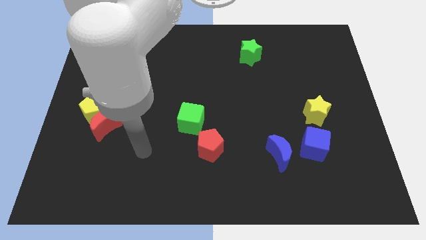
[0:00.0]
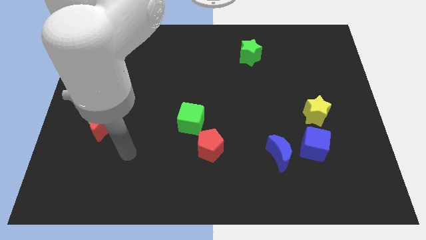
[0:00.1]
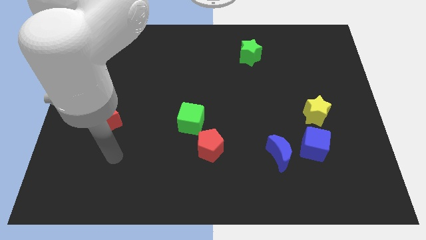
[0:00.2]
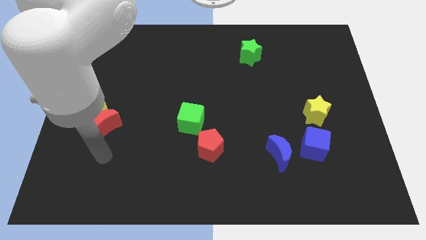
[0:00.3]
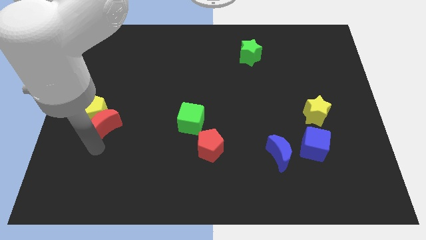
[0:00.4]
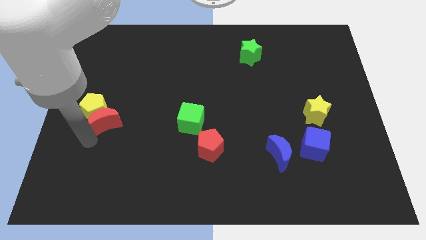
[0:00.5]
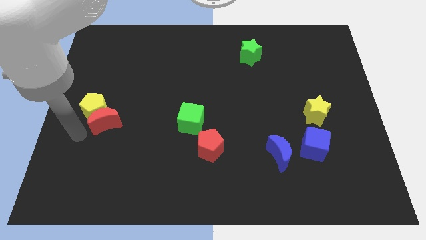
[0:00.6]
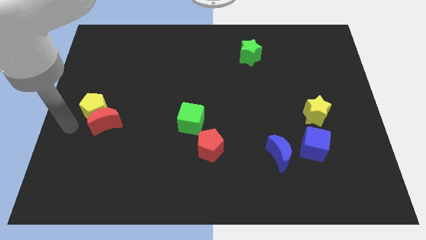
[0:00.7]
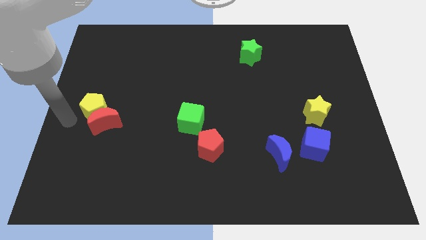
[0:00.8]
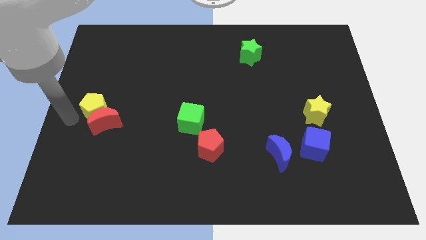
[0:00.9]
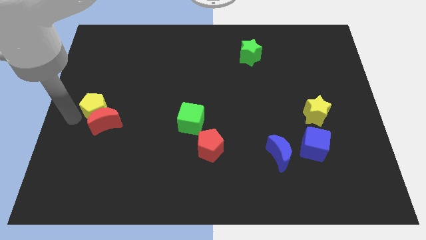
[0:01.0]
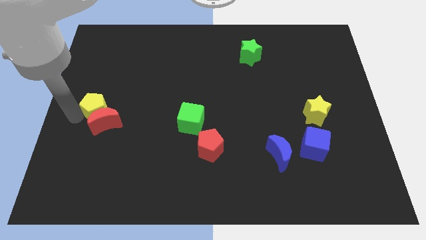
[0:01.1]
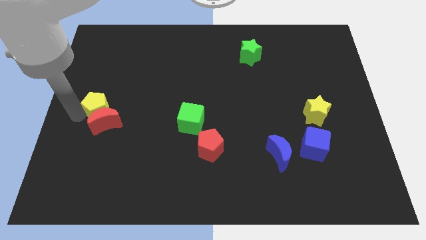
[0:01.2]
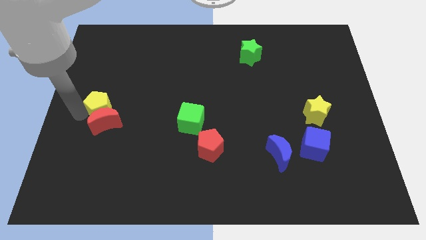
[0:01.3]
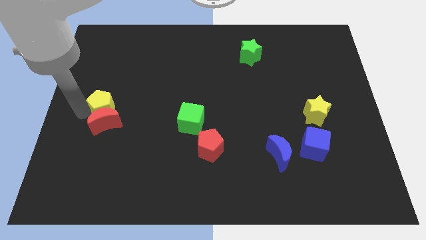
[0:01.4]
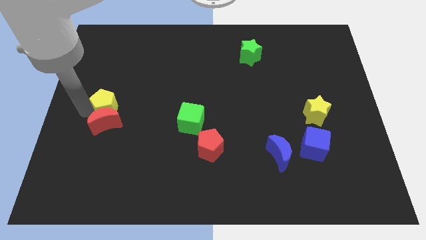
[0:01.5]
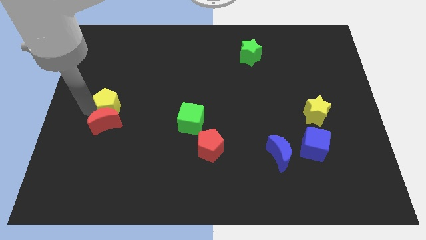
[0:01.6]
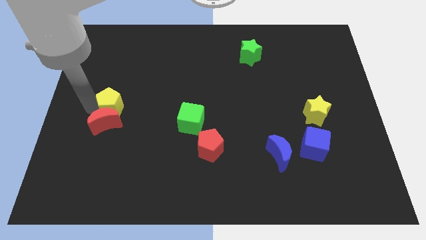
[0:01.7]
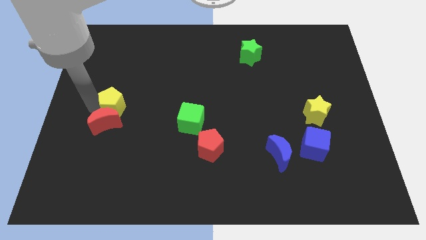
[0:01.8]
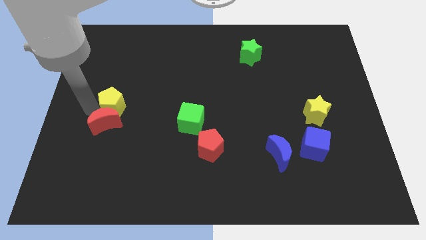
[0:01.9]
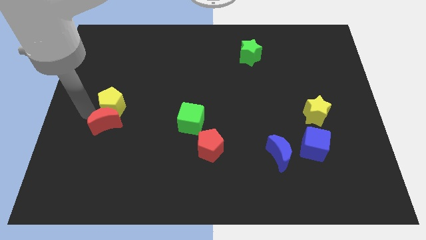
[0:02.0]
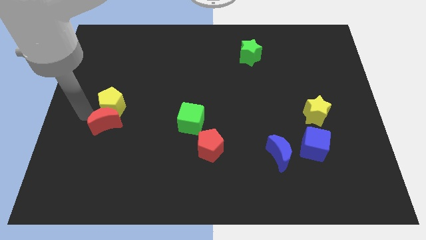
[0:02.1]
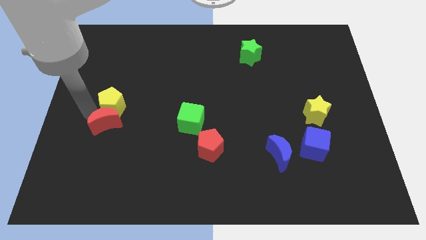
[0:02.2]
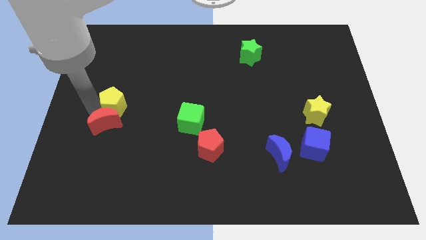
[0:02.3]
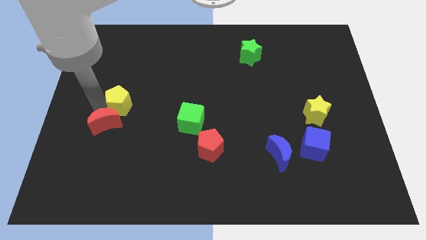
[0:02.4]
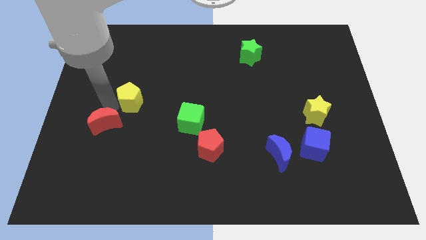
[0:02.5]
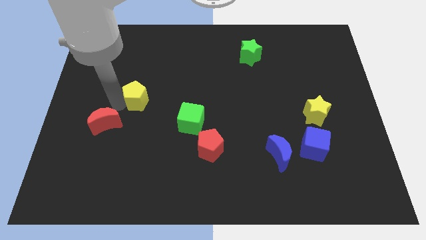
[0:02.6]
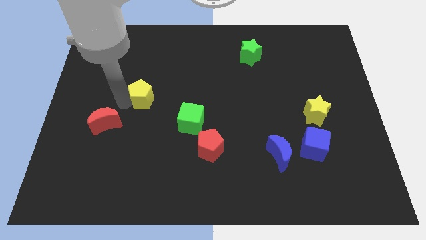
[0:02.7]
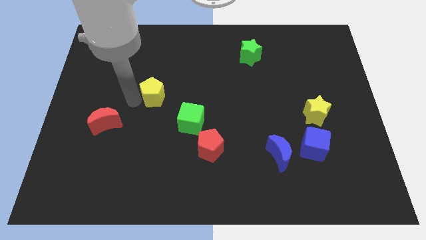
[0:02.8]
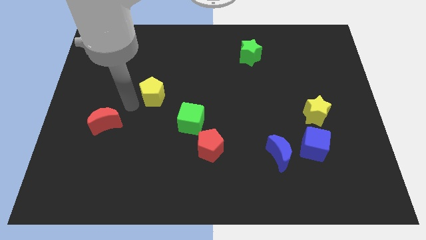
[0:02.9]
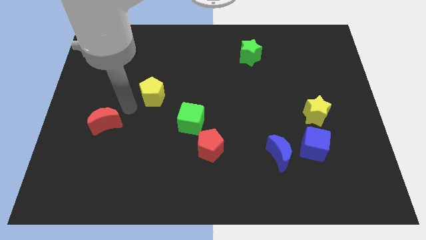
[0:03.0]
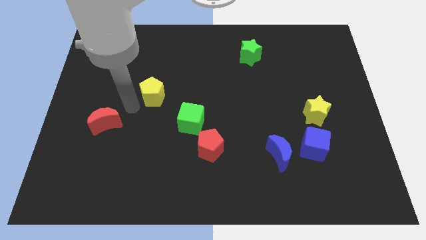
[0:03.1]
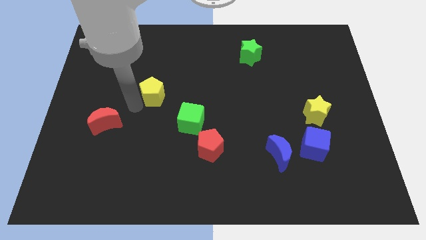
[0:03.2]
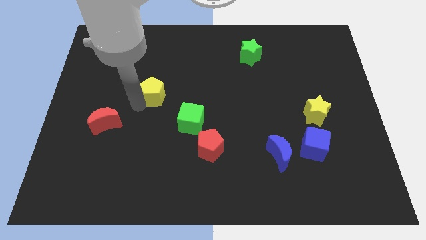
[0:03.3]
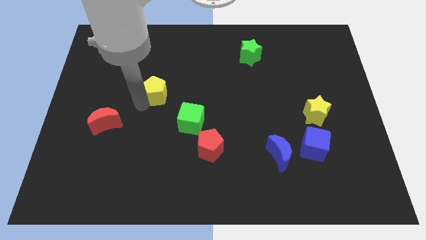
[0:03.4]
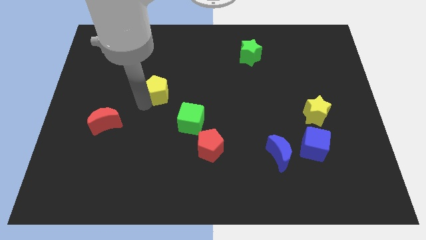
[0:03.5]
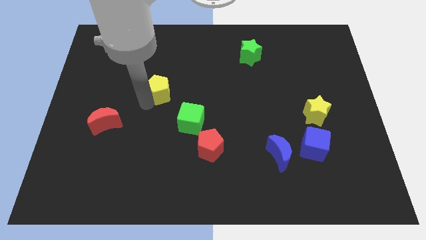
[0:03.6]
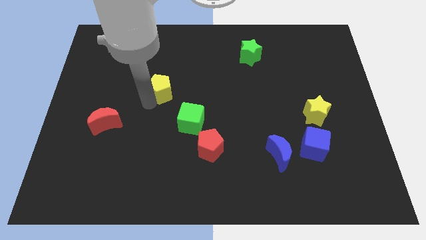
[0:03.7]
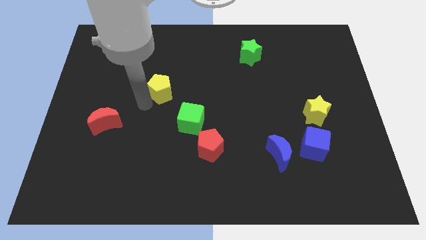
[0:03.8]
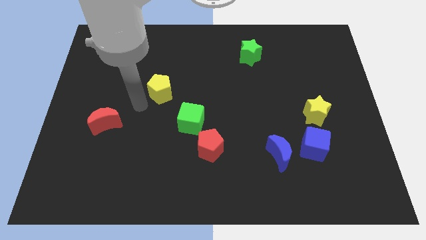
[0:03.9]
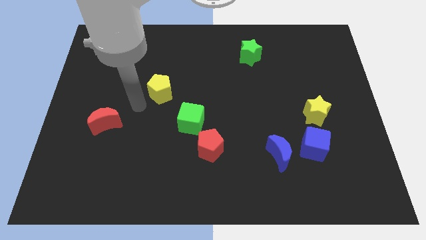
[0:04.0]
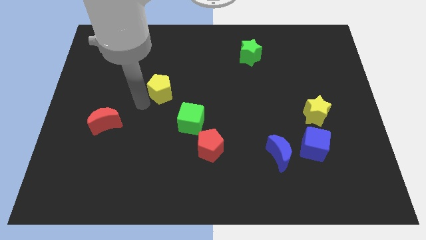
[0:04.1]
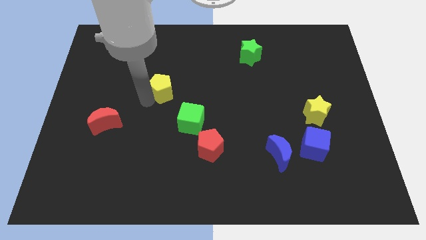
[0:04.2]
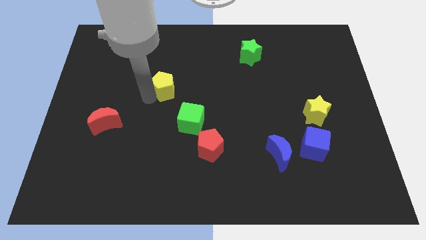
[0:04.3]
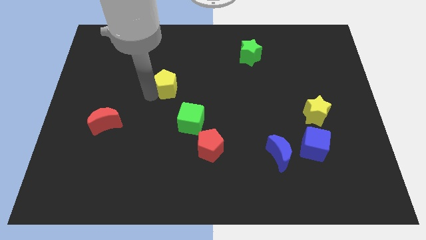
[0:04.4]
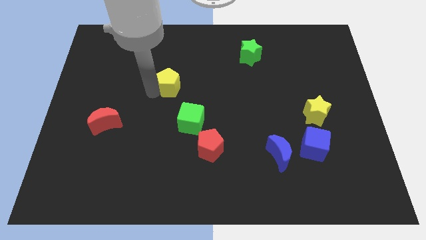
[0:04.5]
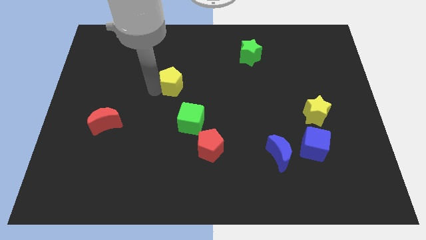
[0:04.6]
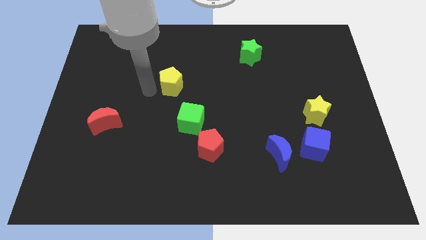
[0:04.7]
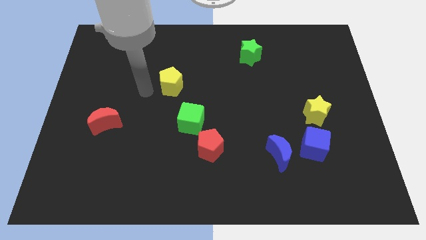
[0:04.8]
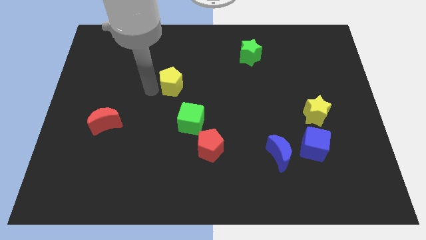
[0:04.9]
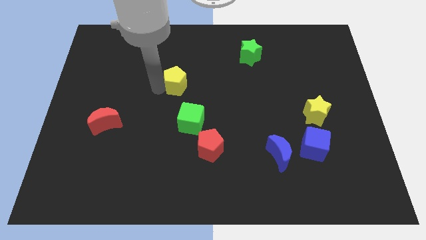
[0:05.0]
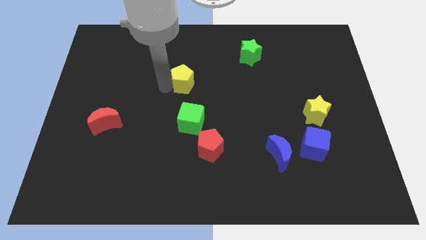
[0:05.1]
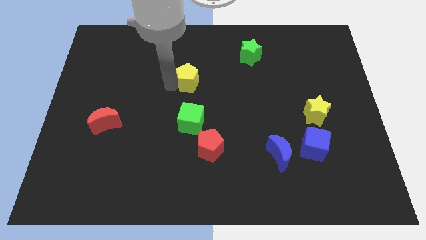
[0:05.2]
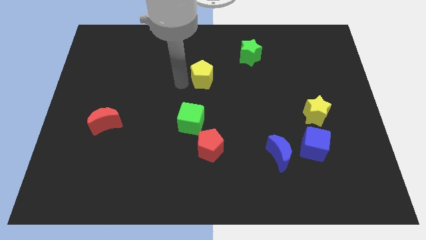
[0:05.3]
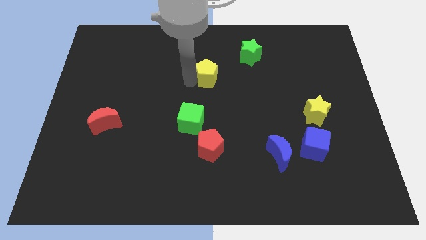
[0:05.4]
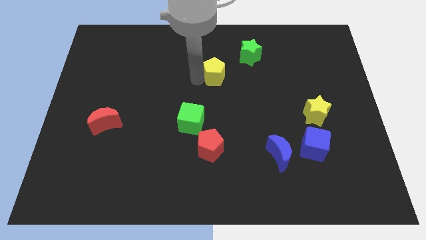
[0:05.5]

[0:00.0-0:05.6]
move the yellow pentagon to the bottom left of the green star

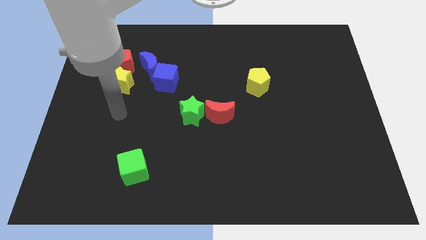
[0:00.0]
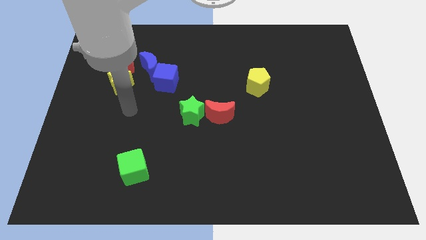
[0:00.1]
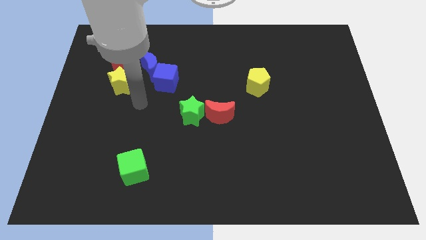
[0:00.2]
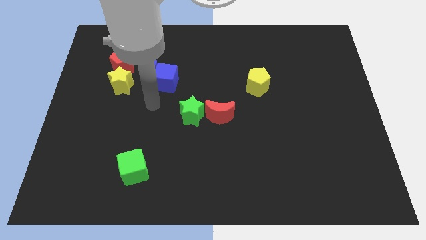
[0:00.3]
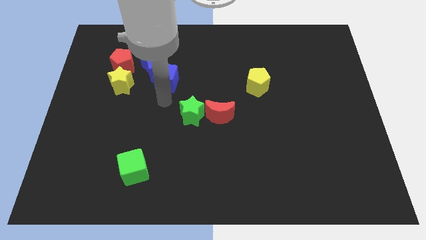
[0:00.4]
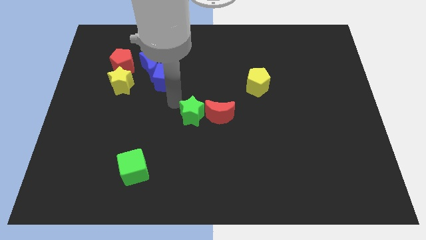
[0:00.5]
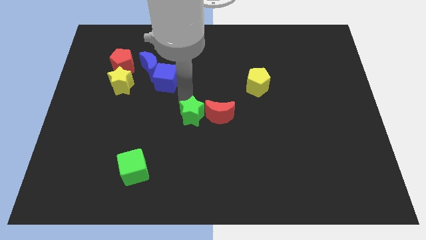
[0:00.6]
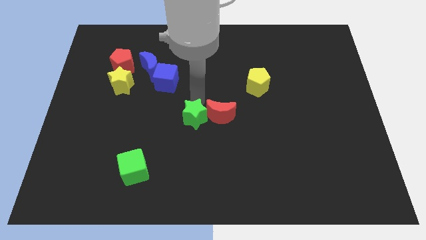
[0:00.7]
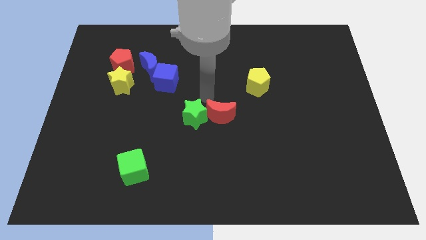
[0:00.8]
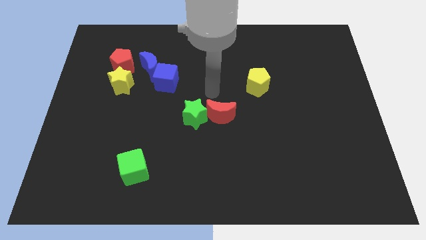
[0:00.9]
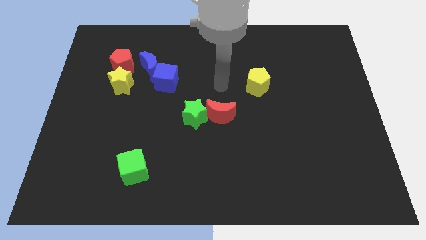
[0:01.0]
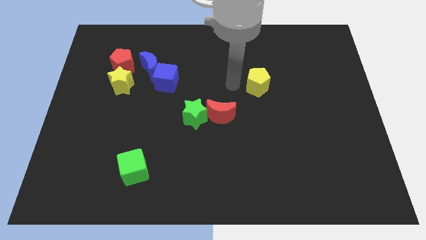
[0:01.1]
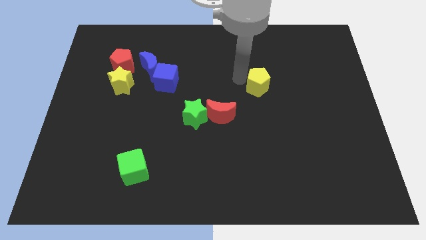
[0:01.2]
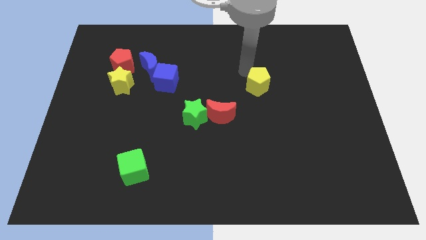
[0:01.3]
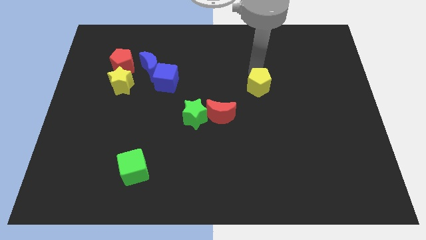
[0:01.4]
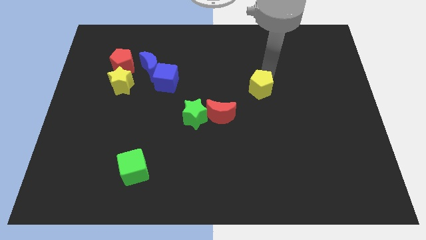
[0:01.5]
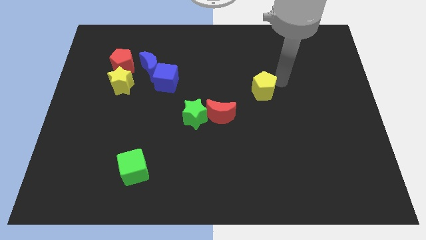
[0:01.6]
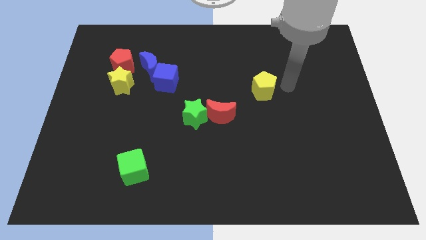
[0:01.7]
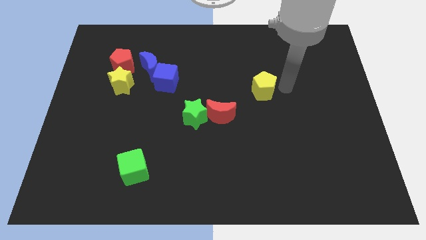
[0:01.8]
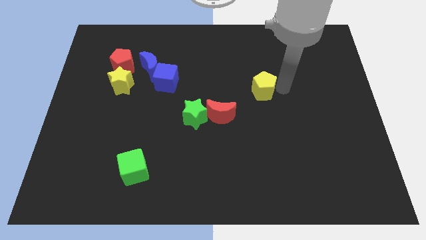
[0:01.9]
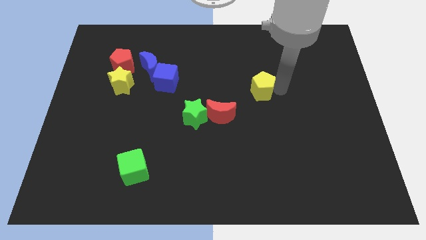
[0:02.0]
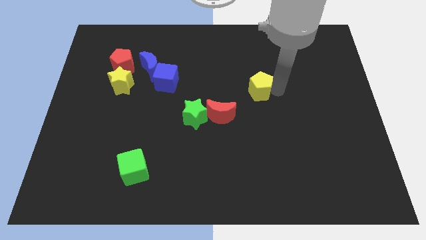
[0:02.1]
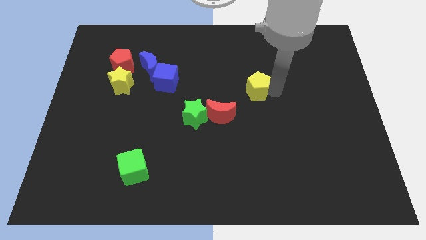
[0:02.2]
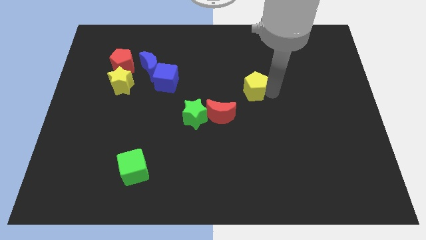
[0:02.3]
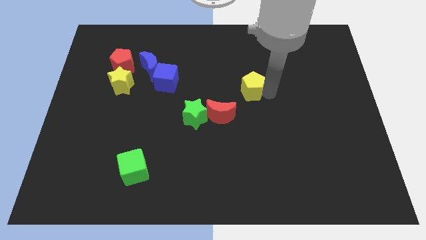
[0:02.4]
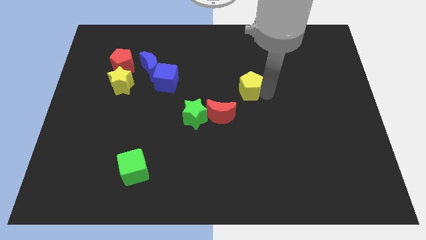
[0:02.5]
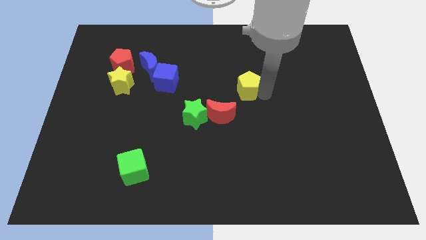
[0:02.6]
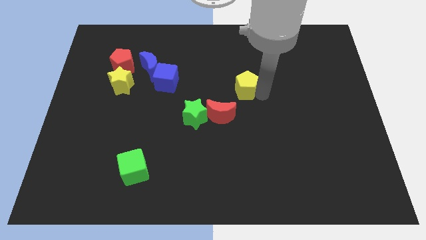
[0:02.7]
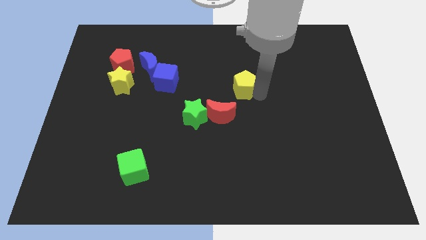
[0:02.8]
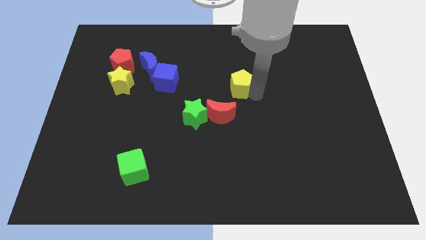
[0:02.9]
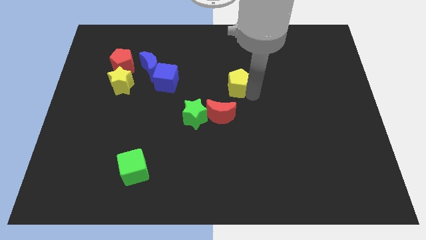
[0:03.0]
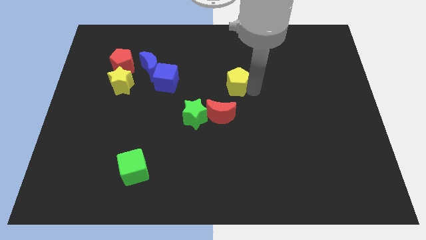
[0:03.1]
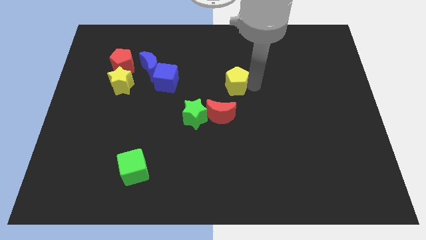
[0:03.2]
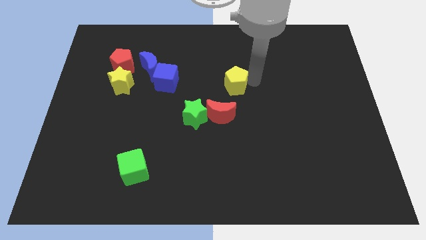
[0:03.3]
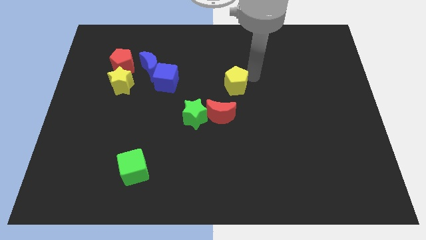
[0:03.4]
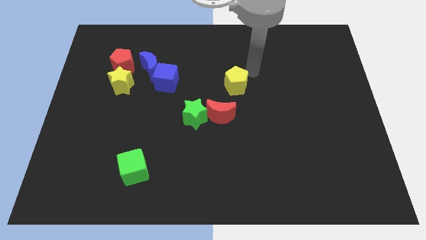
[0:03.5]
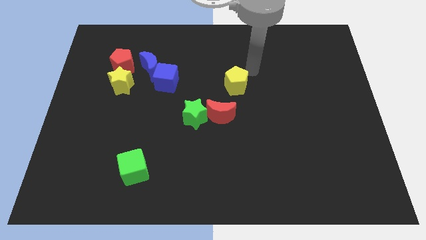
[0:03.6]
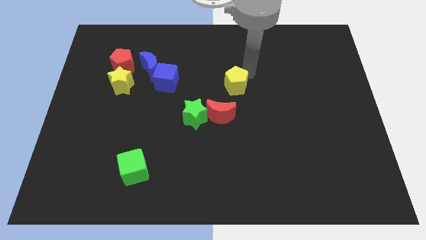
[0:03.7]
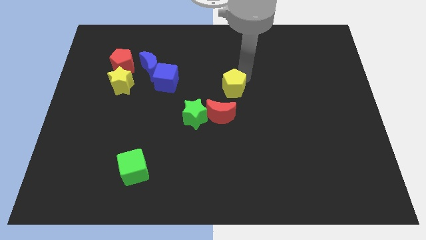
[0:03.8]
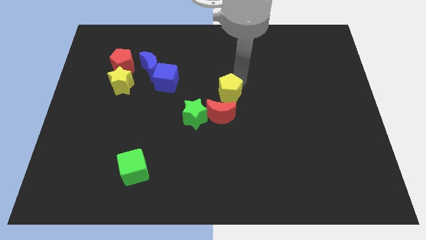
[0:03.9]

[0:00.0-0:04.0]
push the yellow pentagon to the top right side of the green star
